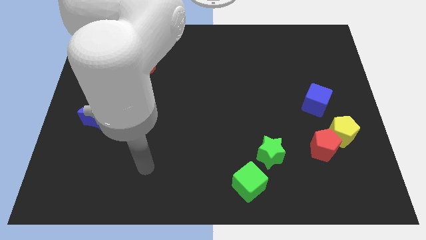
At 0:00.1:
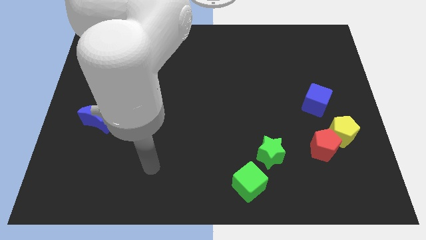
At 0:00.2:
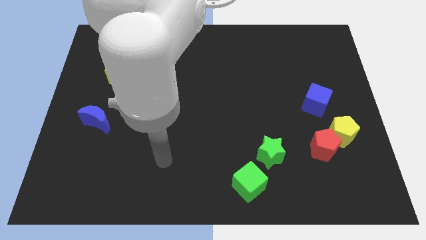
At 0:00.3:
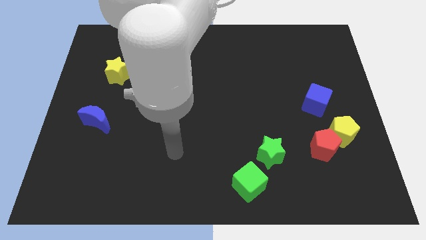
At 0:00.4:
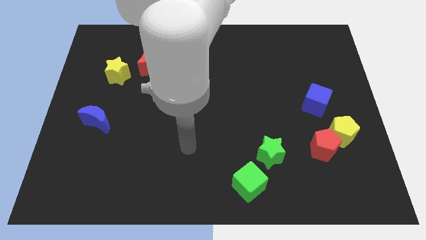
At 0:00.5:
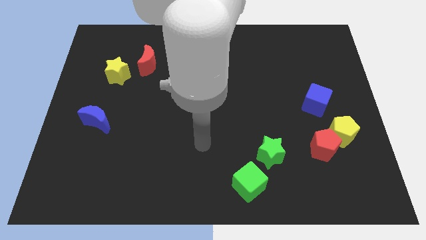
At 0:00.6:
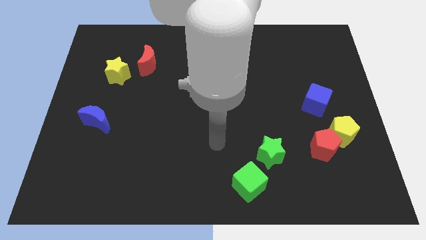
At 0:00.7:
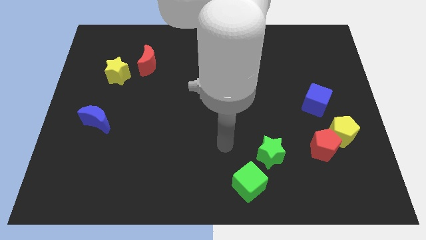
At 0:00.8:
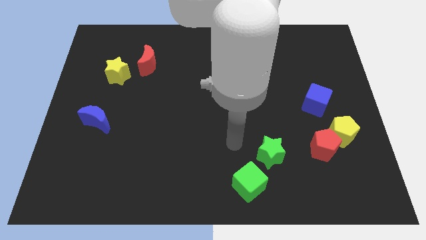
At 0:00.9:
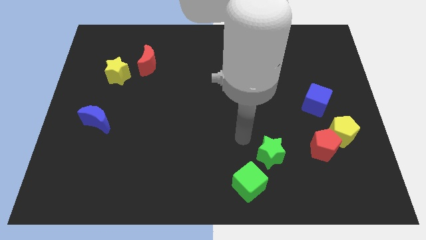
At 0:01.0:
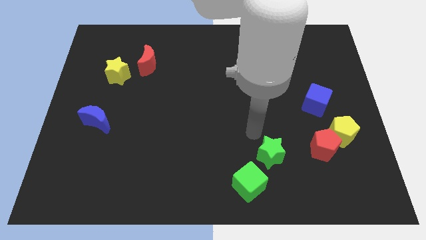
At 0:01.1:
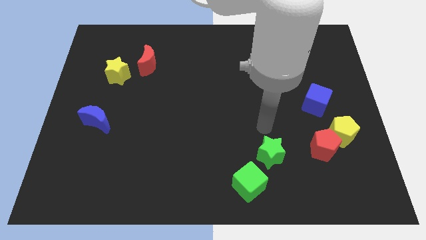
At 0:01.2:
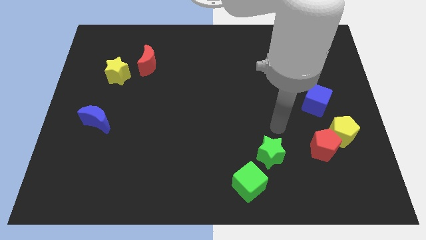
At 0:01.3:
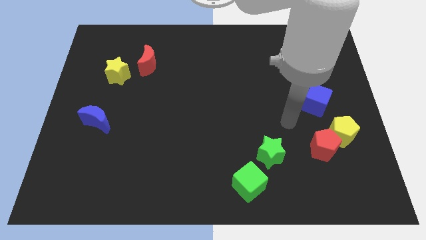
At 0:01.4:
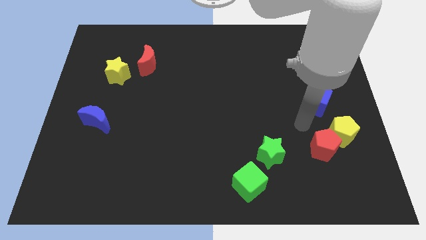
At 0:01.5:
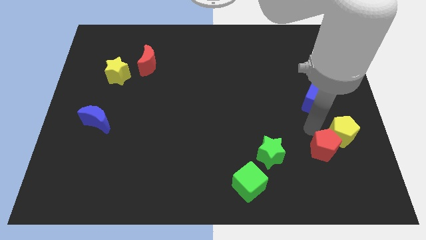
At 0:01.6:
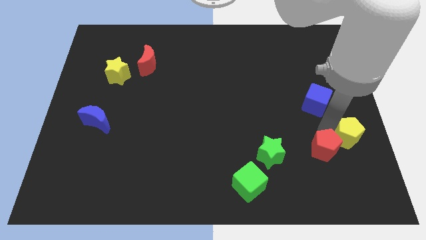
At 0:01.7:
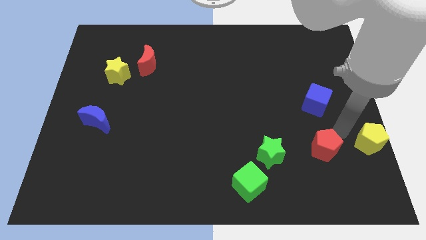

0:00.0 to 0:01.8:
move the red pentagon away from the yellow pentagon

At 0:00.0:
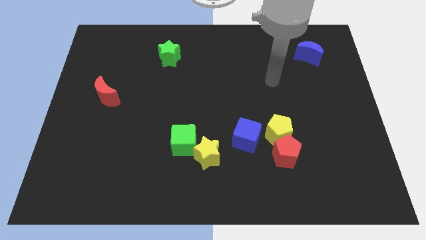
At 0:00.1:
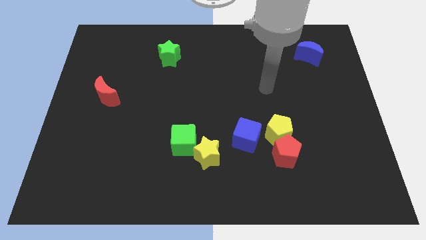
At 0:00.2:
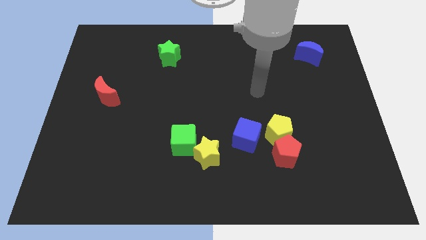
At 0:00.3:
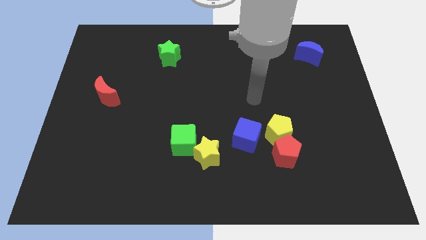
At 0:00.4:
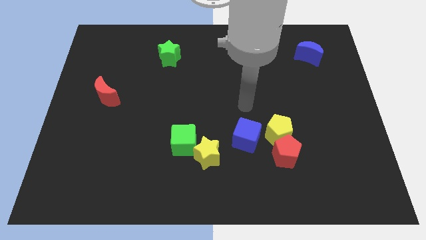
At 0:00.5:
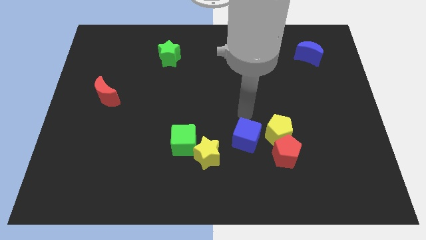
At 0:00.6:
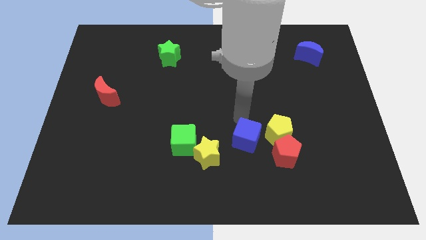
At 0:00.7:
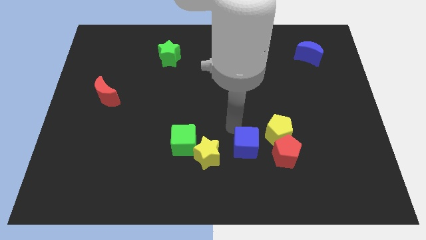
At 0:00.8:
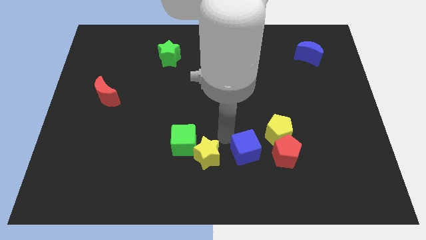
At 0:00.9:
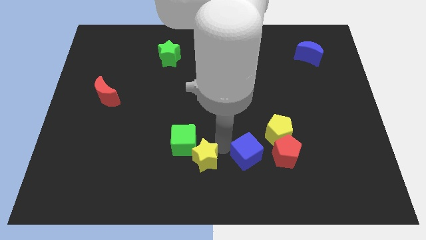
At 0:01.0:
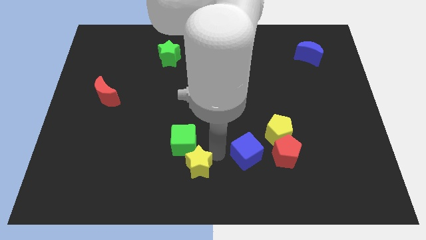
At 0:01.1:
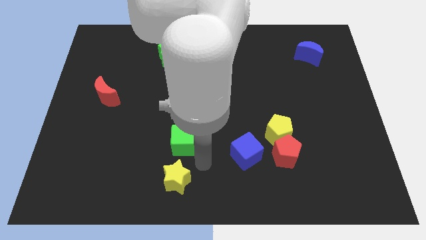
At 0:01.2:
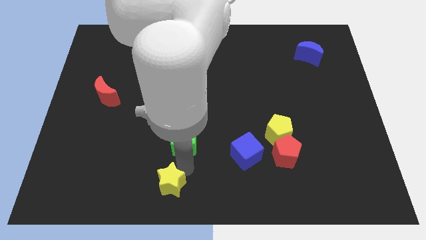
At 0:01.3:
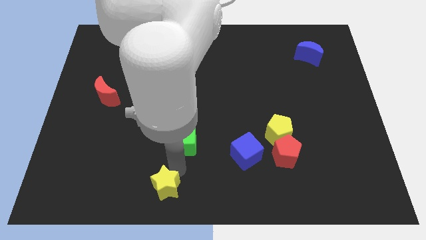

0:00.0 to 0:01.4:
move the green cube away from the yellow star

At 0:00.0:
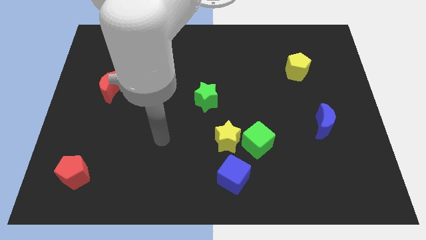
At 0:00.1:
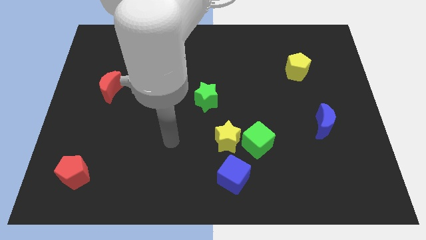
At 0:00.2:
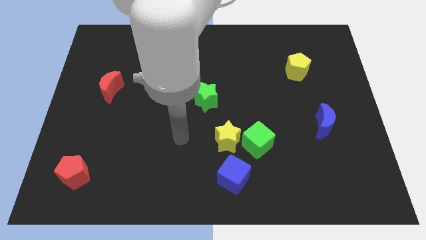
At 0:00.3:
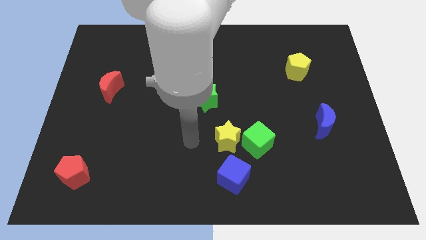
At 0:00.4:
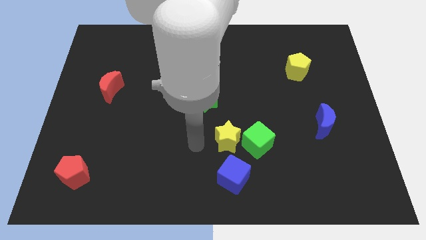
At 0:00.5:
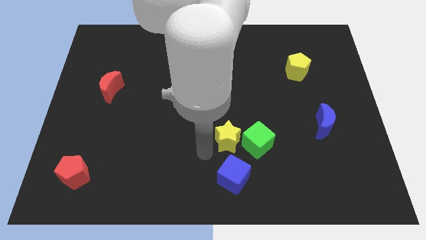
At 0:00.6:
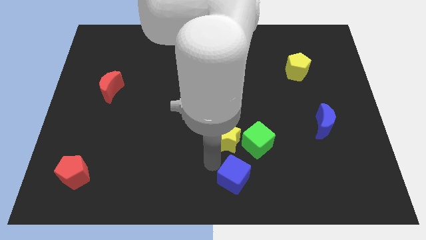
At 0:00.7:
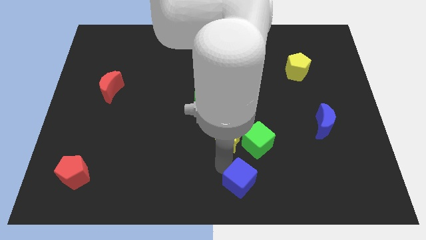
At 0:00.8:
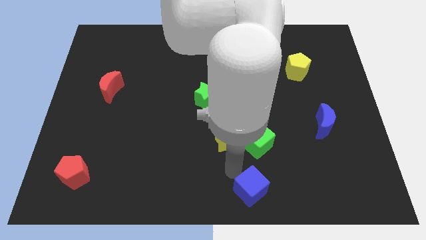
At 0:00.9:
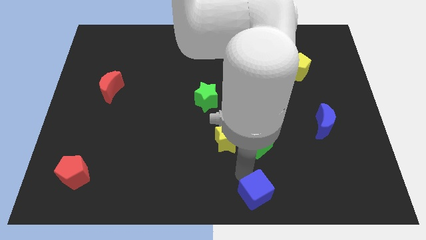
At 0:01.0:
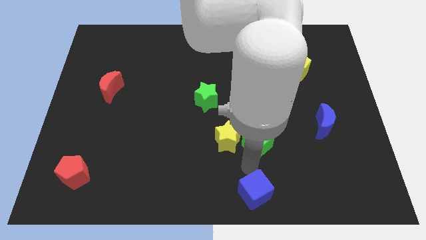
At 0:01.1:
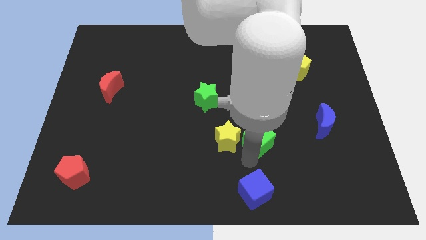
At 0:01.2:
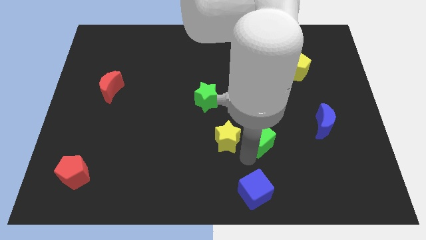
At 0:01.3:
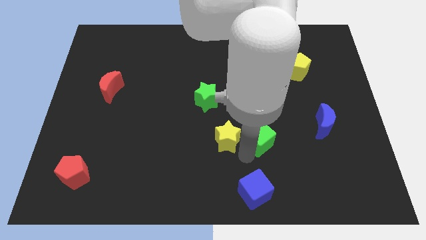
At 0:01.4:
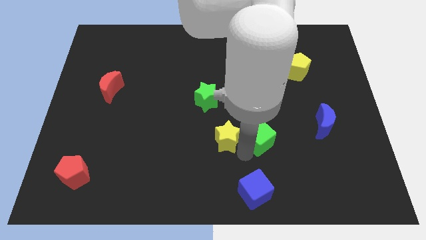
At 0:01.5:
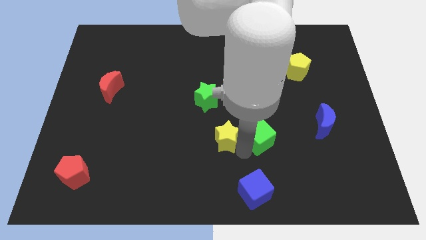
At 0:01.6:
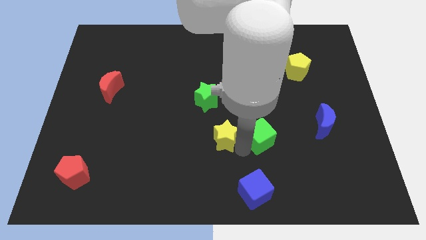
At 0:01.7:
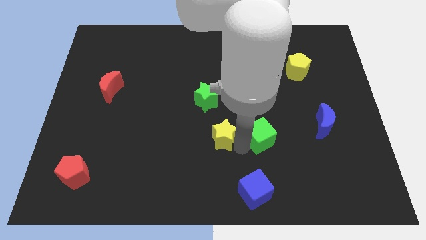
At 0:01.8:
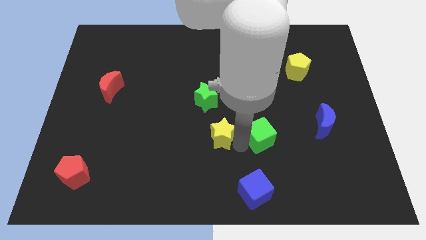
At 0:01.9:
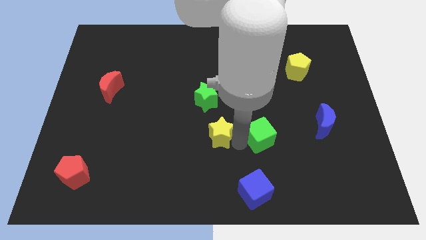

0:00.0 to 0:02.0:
separate the yellow star from the green cube and blue cube

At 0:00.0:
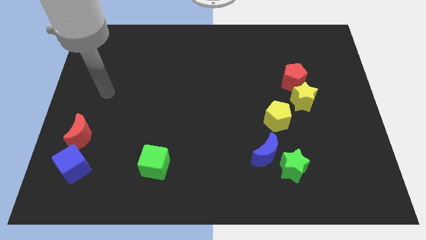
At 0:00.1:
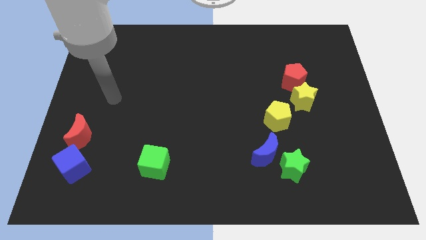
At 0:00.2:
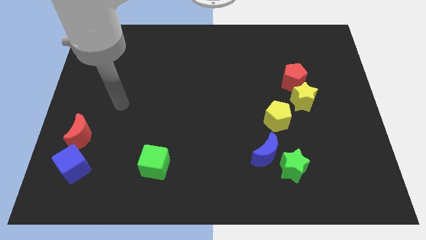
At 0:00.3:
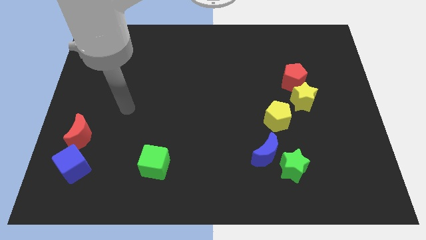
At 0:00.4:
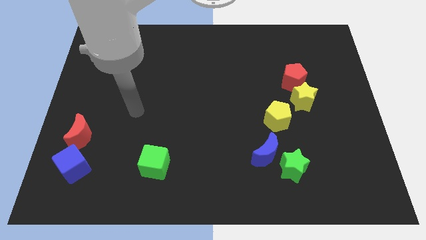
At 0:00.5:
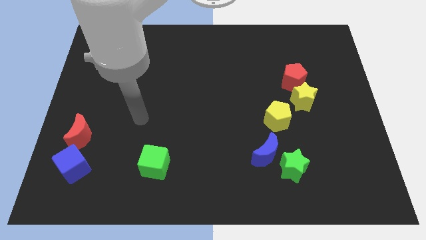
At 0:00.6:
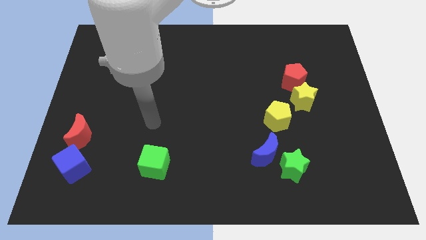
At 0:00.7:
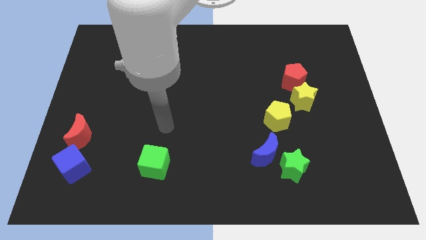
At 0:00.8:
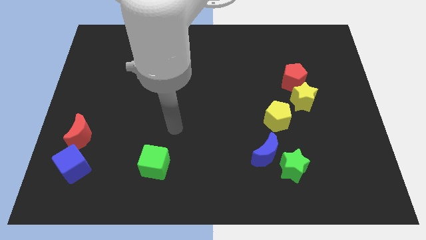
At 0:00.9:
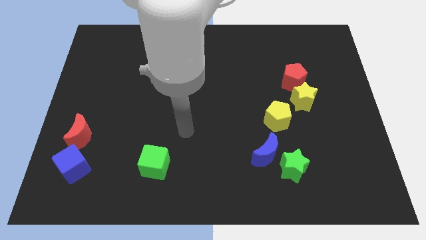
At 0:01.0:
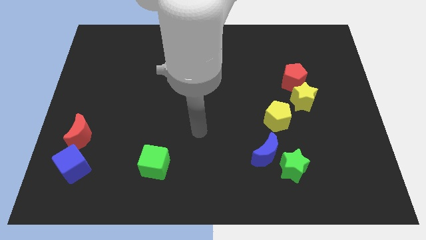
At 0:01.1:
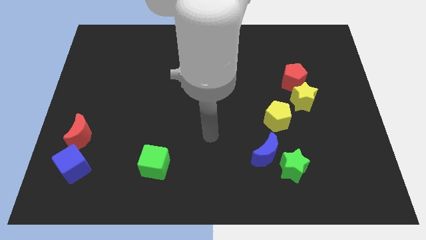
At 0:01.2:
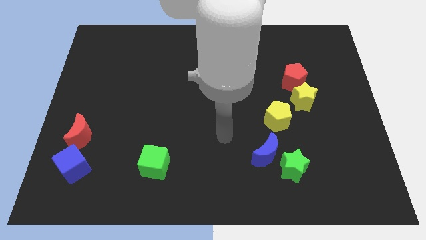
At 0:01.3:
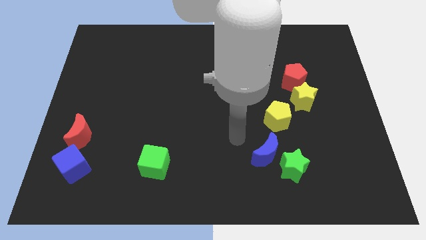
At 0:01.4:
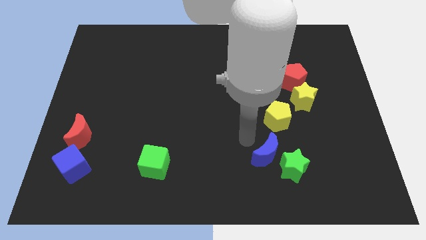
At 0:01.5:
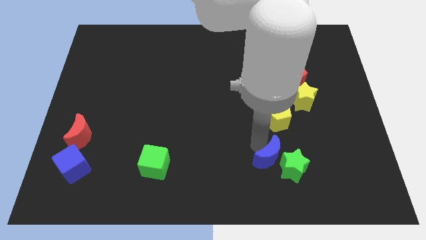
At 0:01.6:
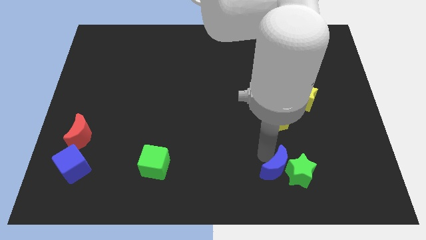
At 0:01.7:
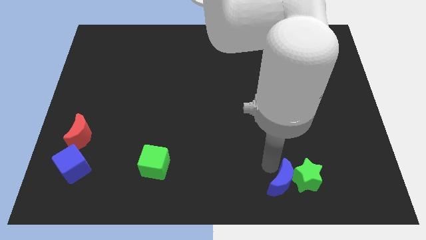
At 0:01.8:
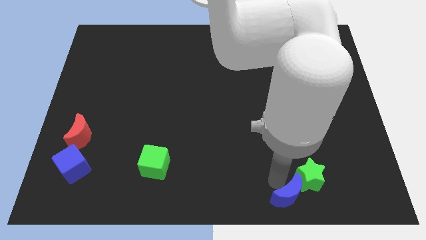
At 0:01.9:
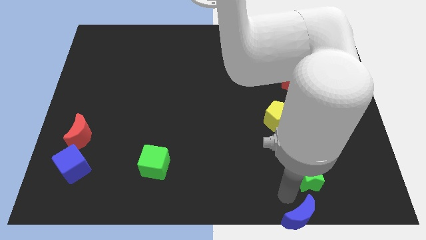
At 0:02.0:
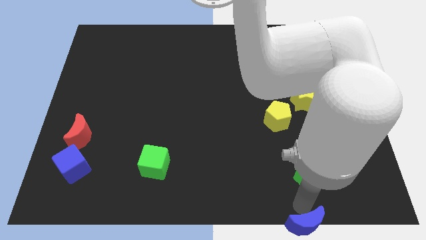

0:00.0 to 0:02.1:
move the green star away from the blue moon

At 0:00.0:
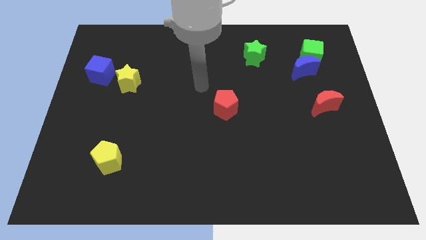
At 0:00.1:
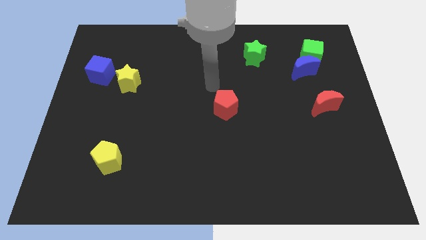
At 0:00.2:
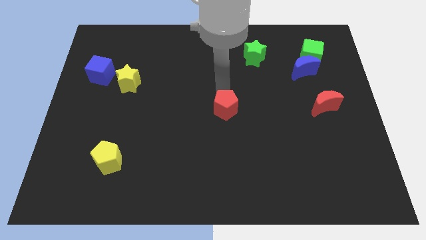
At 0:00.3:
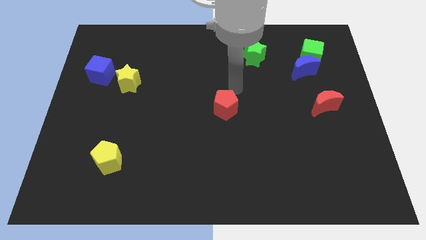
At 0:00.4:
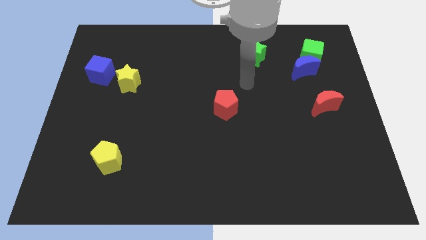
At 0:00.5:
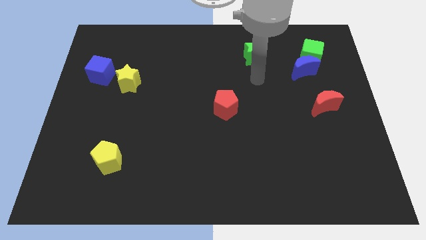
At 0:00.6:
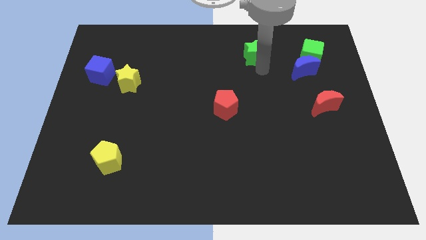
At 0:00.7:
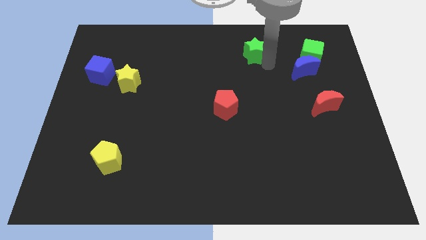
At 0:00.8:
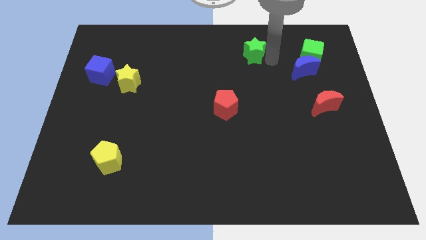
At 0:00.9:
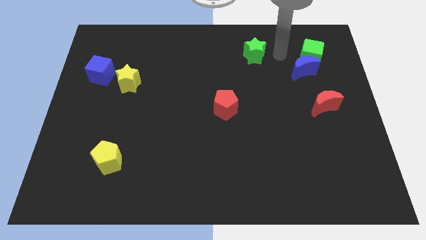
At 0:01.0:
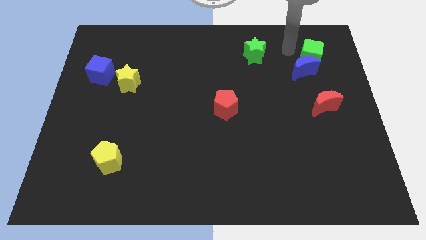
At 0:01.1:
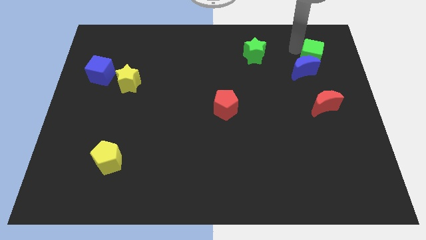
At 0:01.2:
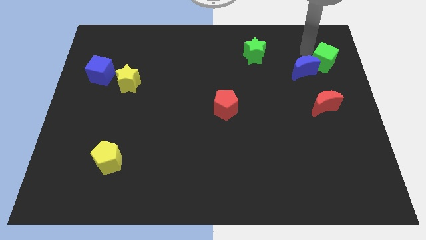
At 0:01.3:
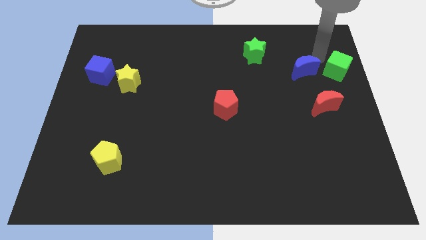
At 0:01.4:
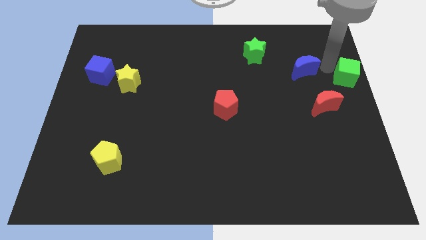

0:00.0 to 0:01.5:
pull the blue moon apart from the green cube

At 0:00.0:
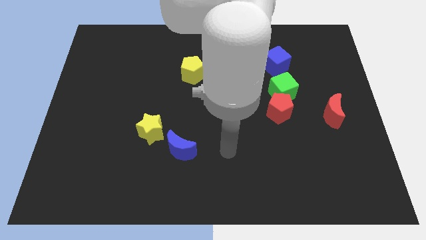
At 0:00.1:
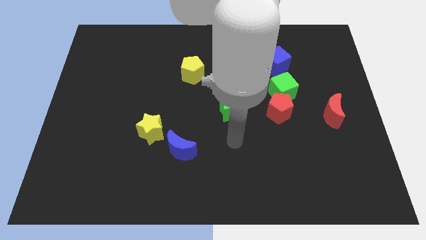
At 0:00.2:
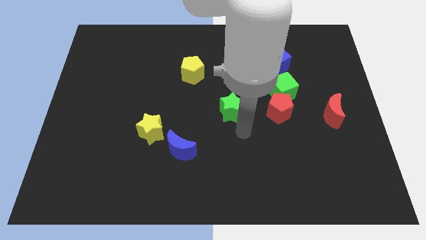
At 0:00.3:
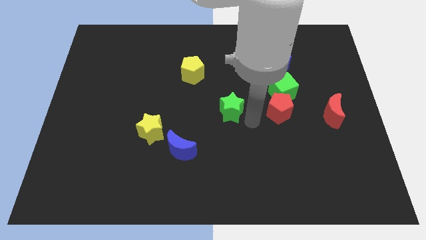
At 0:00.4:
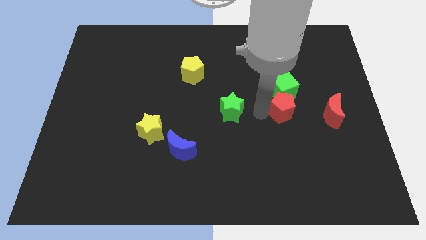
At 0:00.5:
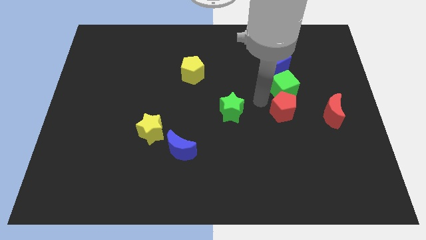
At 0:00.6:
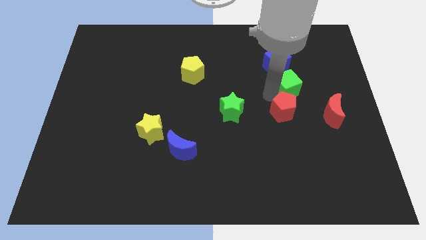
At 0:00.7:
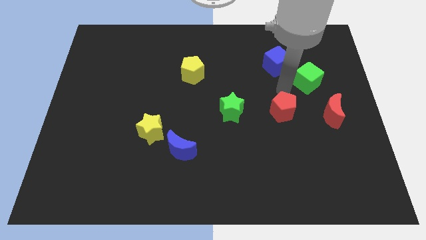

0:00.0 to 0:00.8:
move the red pentagon away from the green cube
